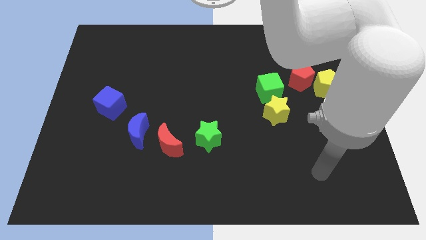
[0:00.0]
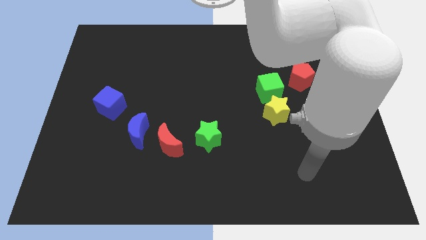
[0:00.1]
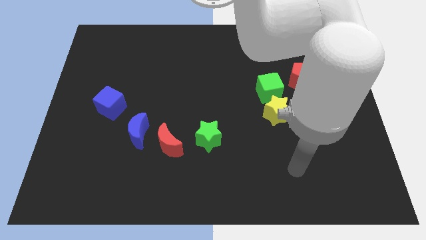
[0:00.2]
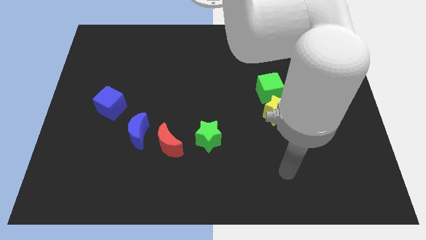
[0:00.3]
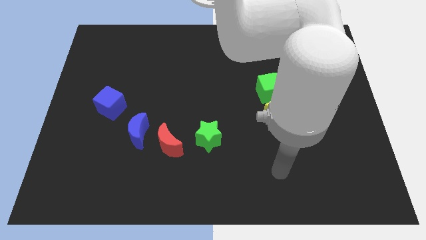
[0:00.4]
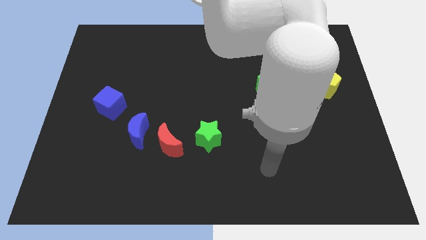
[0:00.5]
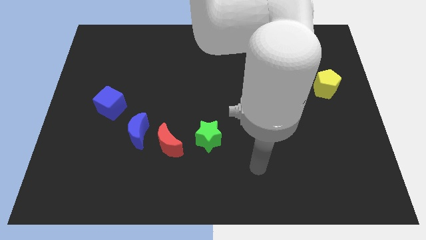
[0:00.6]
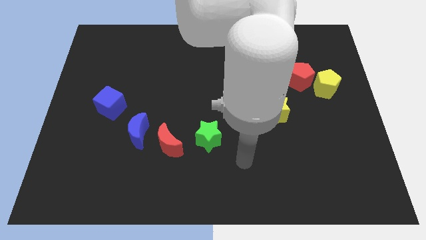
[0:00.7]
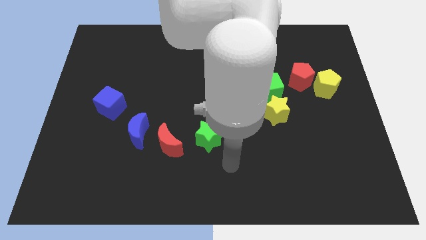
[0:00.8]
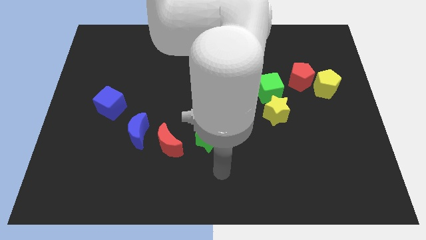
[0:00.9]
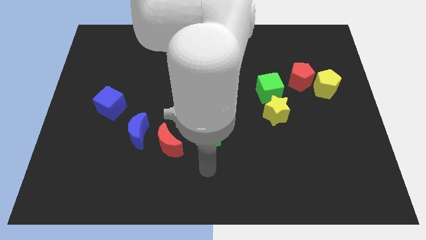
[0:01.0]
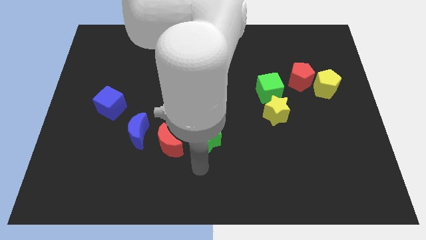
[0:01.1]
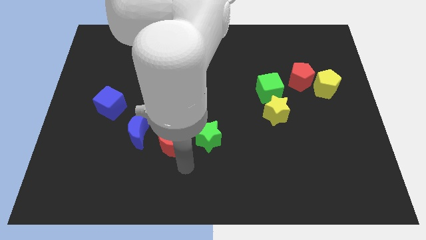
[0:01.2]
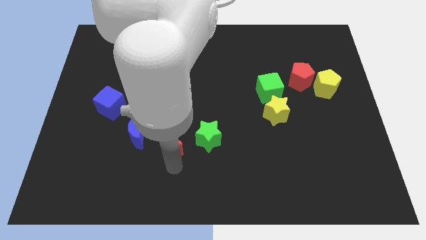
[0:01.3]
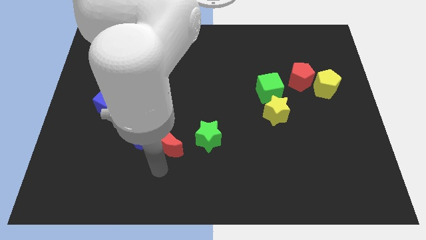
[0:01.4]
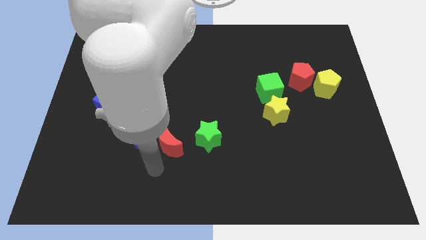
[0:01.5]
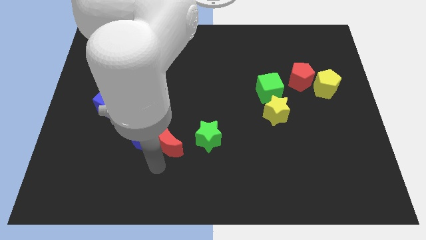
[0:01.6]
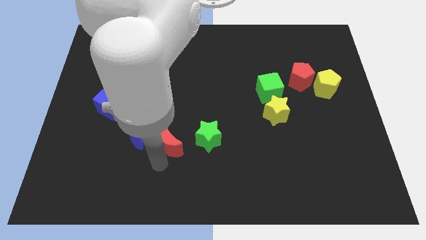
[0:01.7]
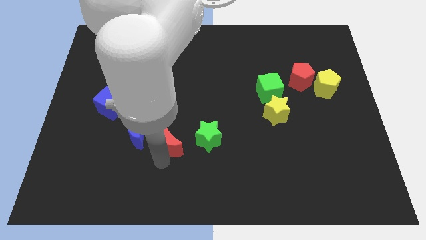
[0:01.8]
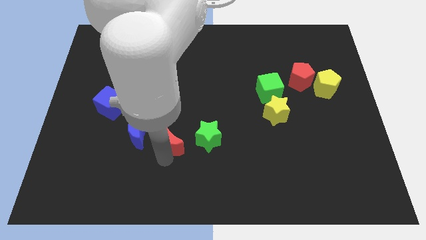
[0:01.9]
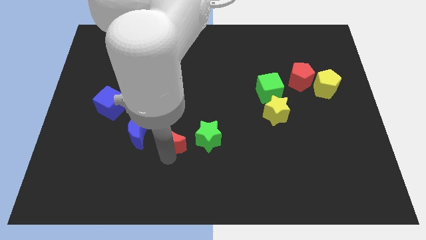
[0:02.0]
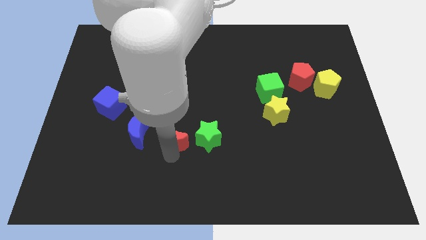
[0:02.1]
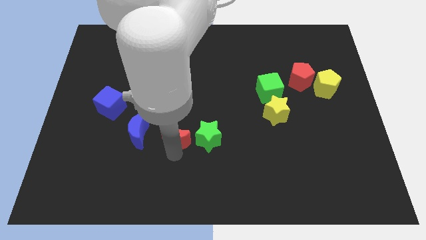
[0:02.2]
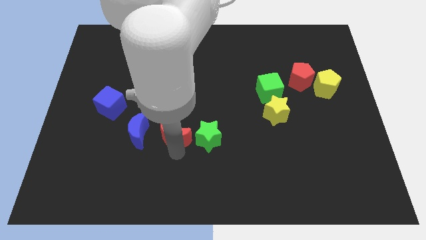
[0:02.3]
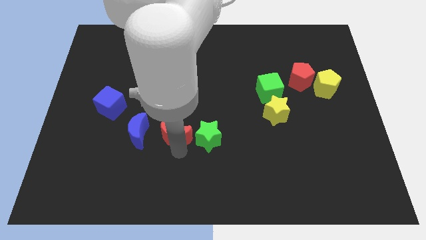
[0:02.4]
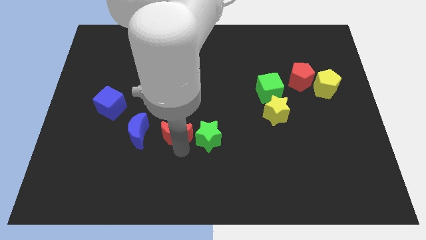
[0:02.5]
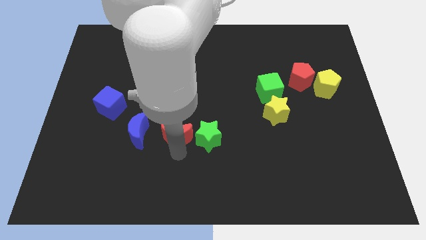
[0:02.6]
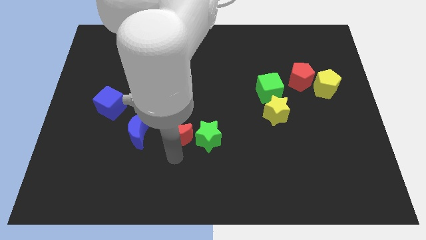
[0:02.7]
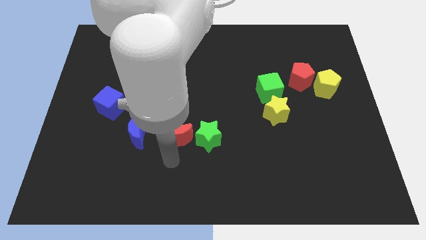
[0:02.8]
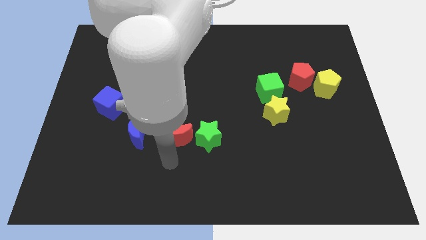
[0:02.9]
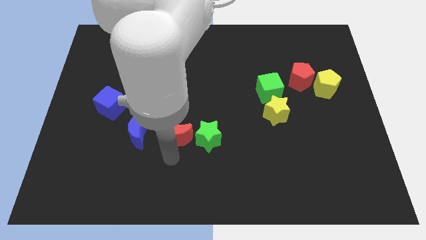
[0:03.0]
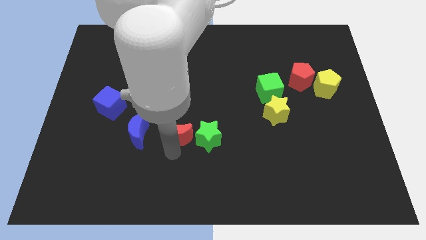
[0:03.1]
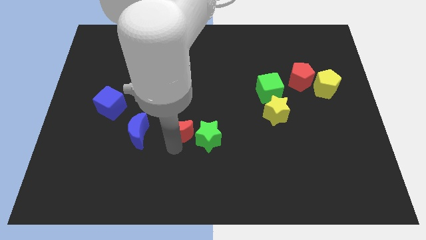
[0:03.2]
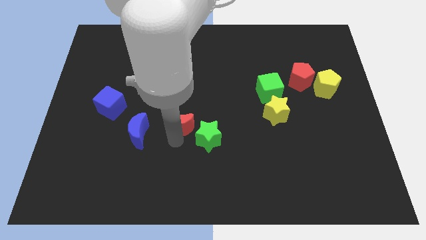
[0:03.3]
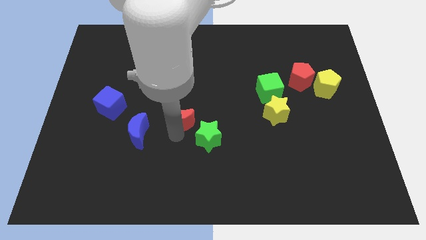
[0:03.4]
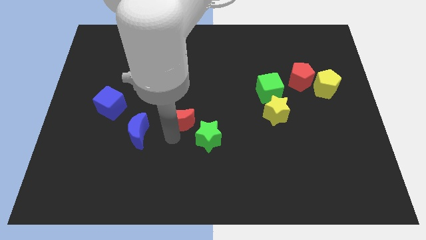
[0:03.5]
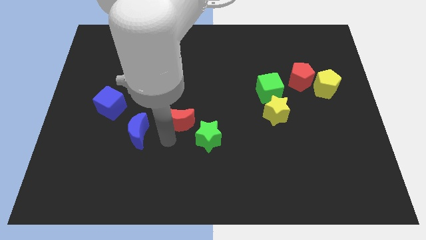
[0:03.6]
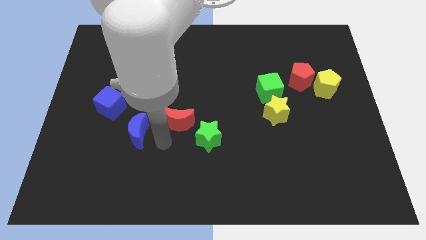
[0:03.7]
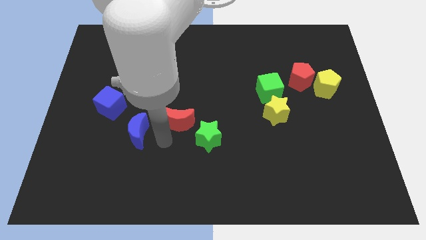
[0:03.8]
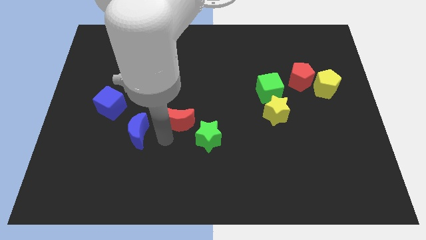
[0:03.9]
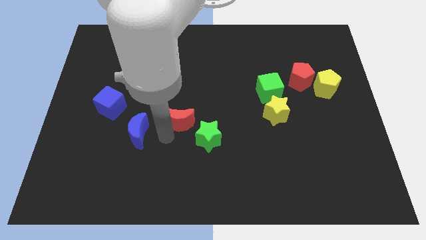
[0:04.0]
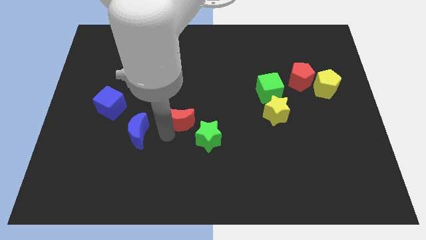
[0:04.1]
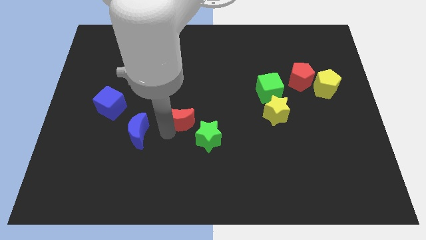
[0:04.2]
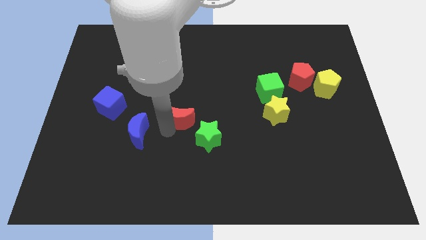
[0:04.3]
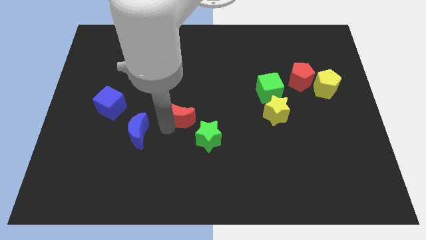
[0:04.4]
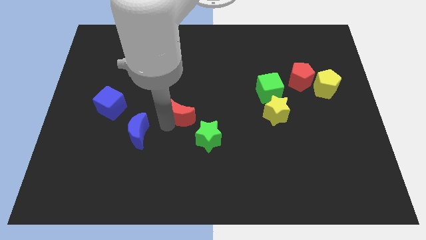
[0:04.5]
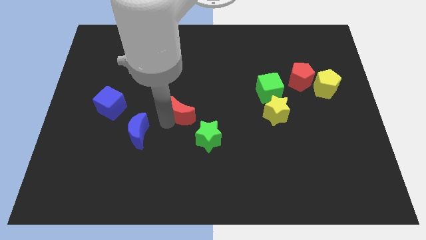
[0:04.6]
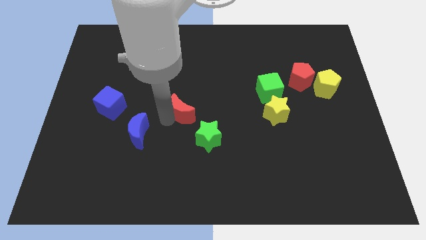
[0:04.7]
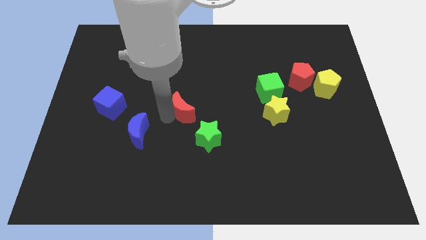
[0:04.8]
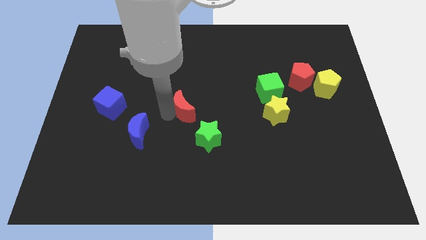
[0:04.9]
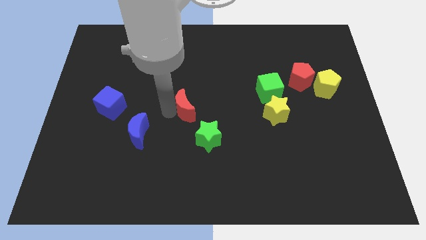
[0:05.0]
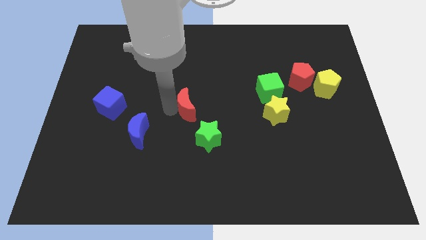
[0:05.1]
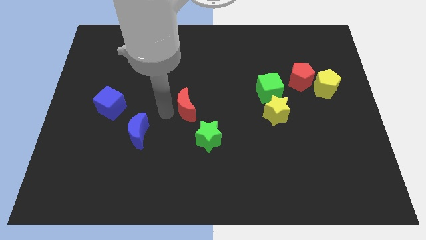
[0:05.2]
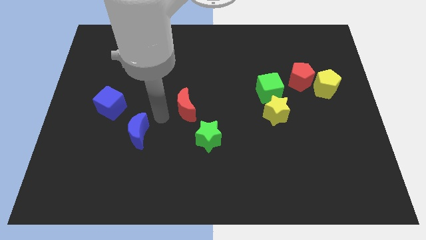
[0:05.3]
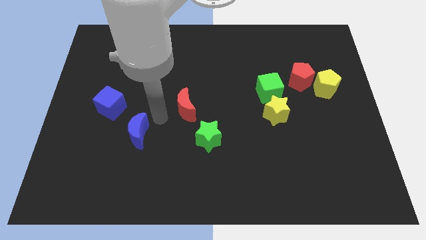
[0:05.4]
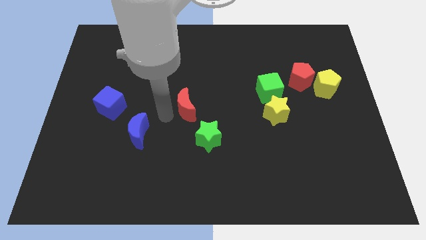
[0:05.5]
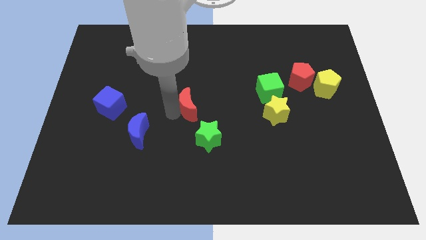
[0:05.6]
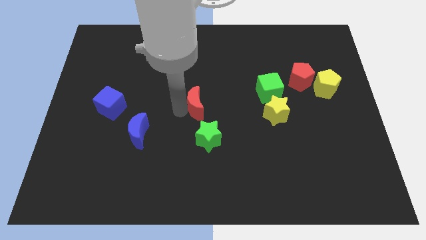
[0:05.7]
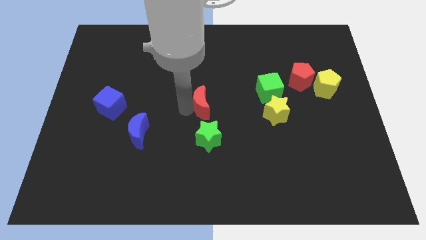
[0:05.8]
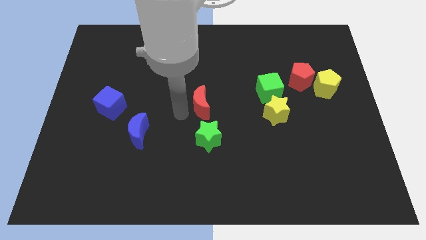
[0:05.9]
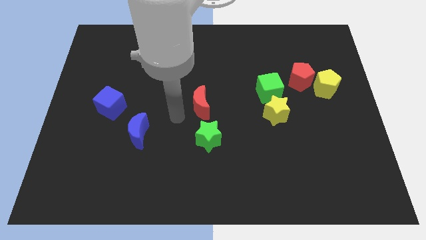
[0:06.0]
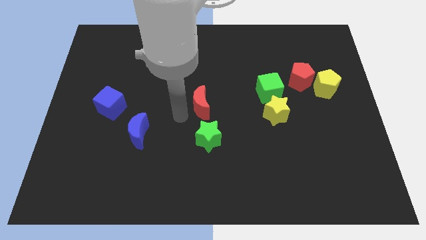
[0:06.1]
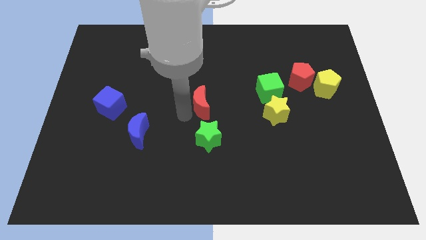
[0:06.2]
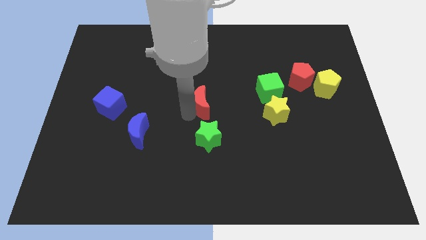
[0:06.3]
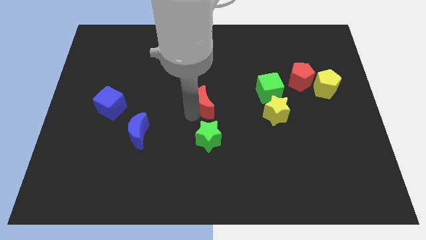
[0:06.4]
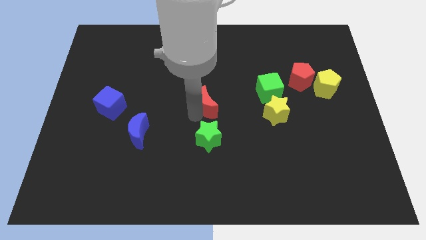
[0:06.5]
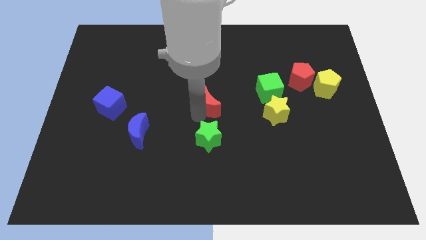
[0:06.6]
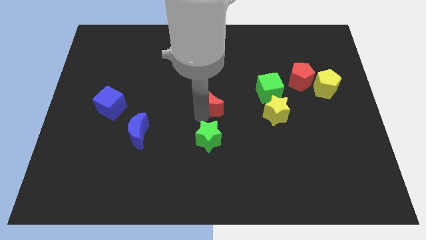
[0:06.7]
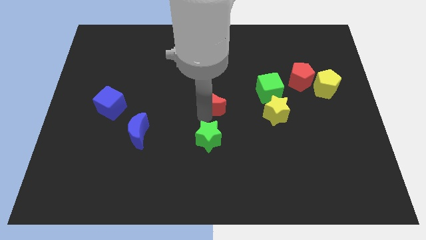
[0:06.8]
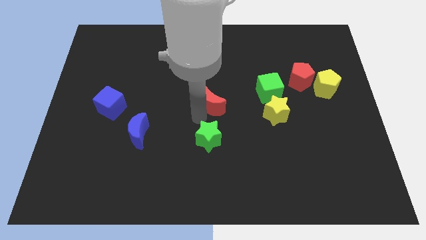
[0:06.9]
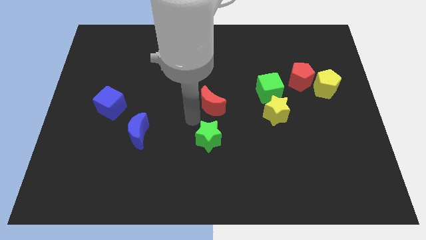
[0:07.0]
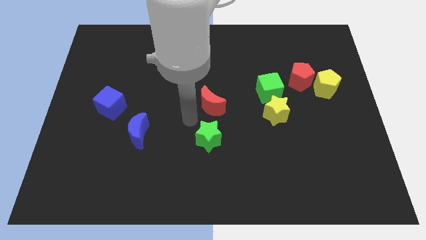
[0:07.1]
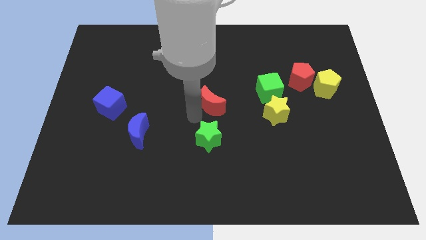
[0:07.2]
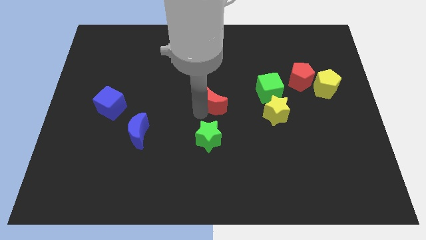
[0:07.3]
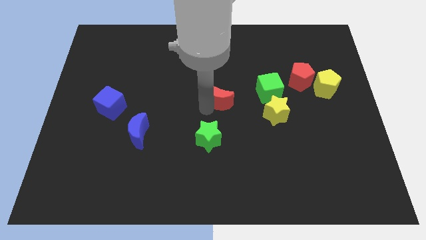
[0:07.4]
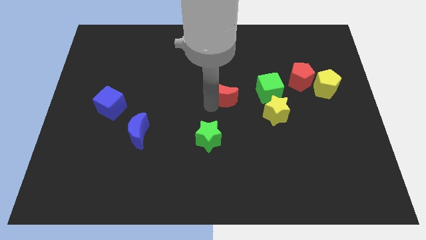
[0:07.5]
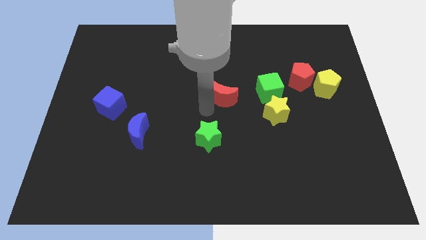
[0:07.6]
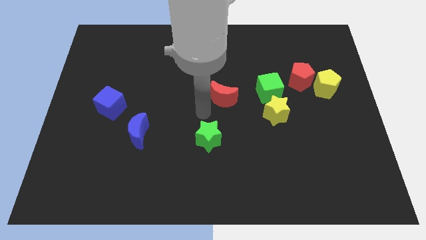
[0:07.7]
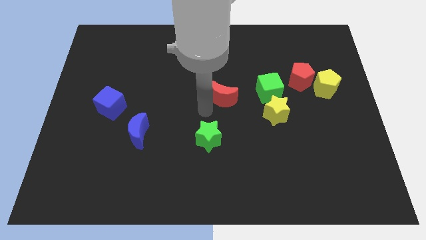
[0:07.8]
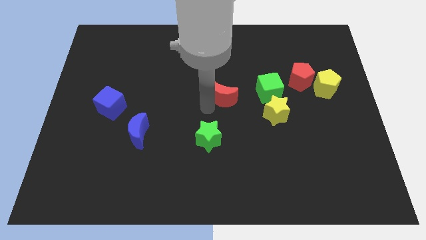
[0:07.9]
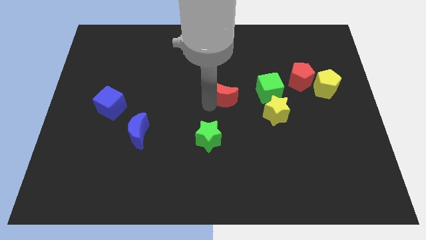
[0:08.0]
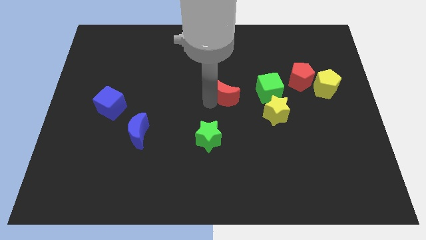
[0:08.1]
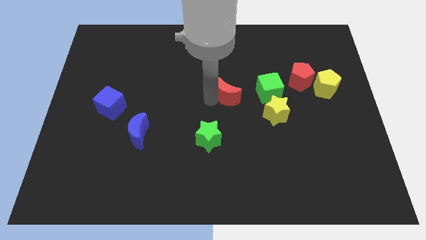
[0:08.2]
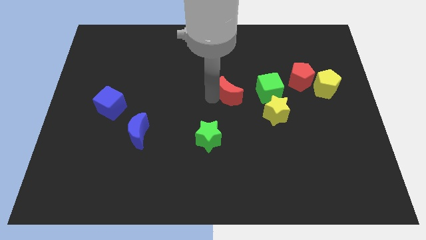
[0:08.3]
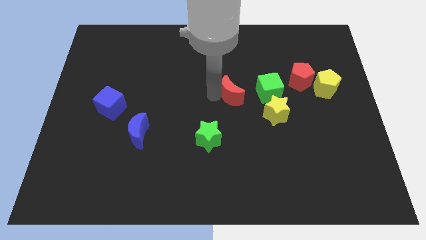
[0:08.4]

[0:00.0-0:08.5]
slide the red moon diagonally upwards and to the right
